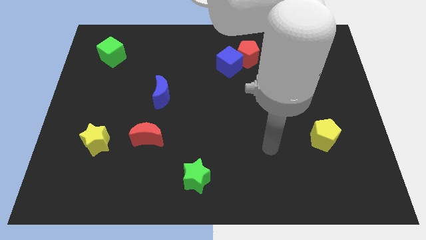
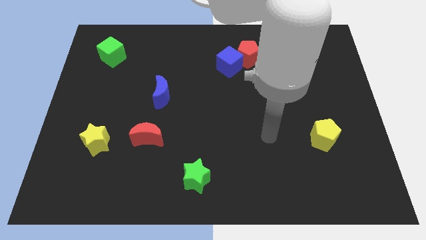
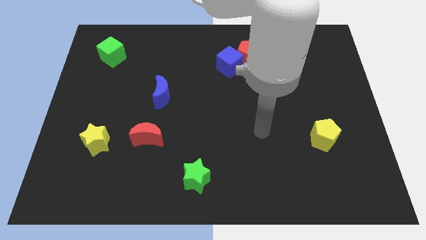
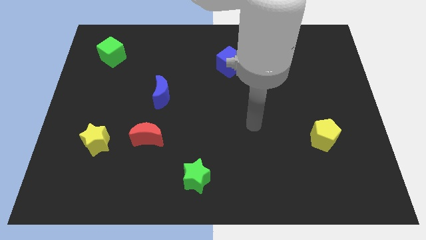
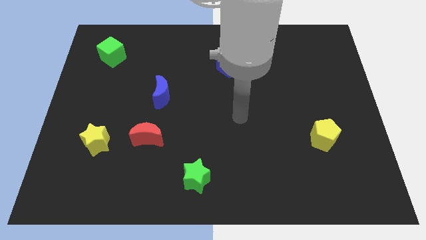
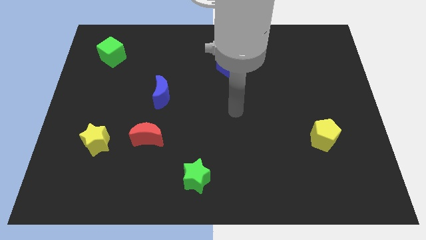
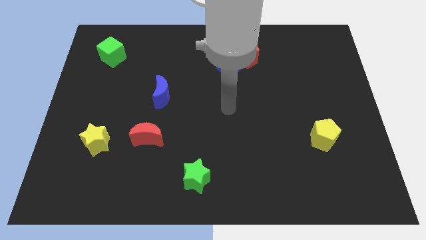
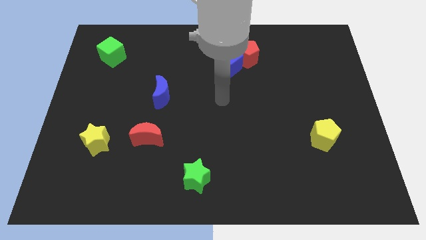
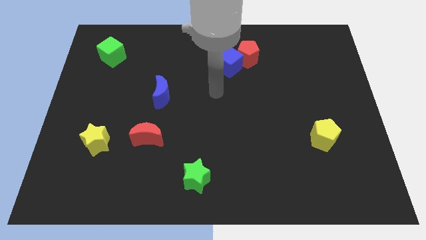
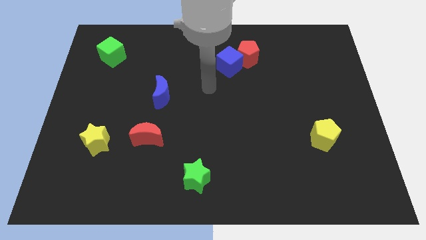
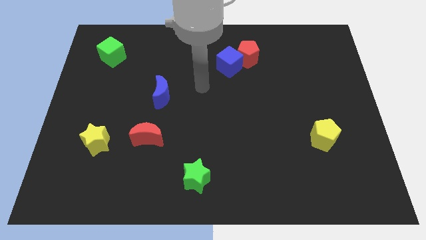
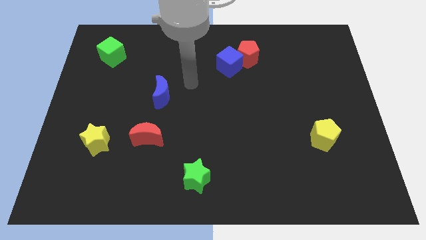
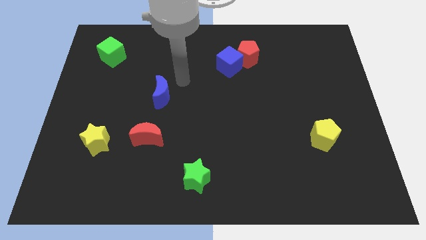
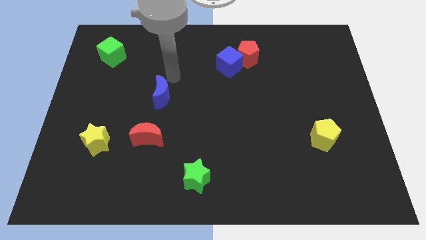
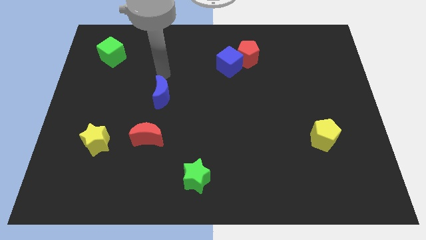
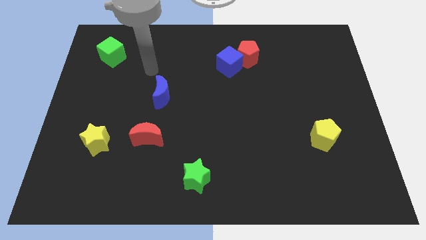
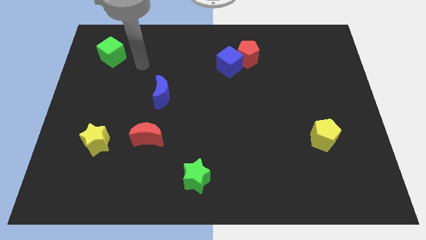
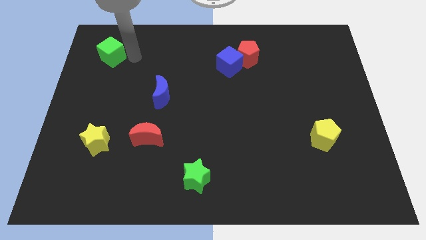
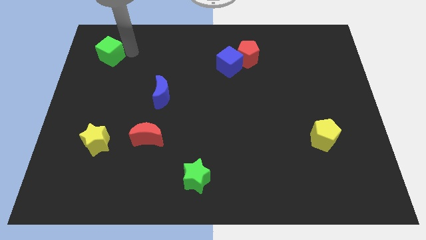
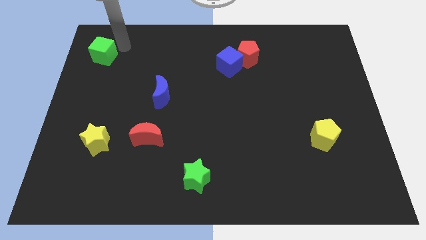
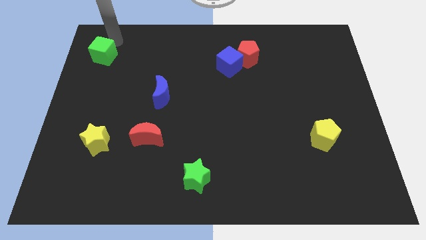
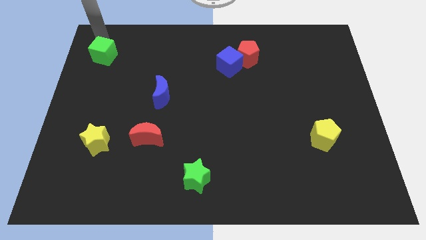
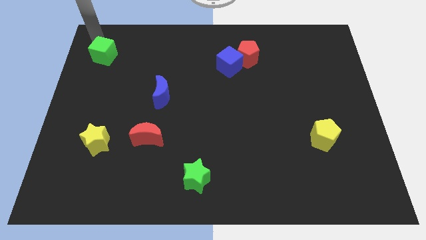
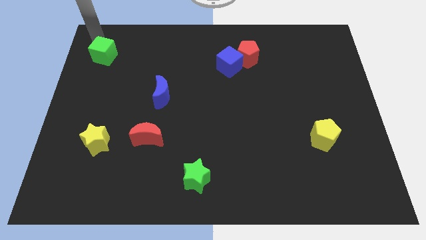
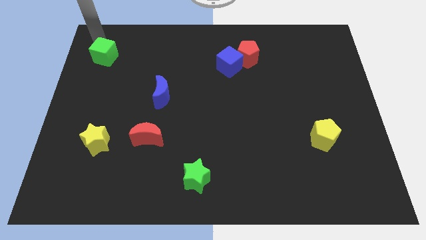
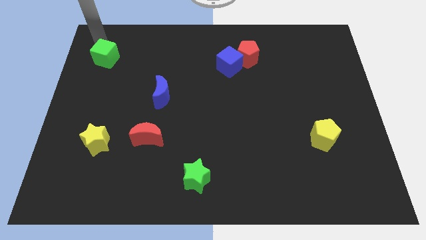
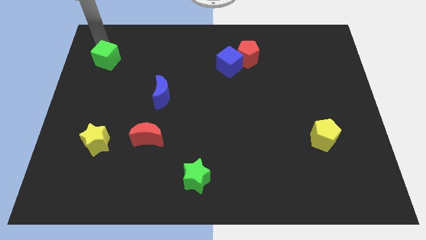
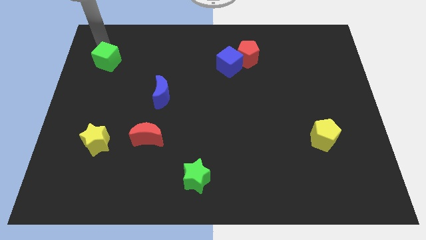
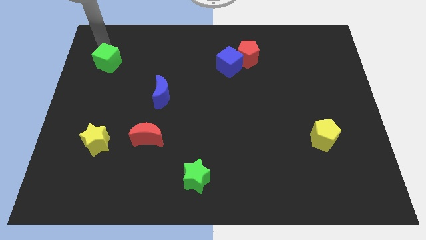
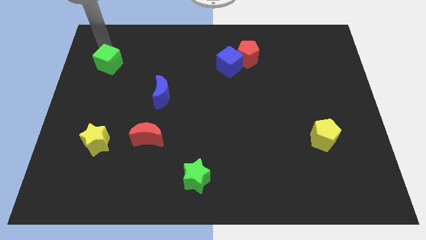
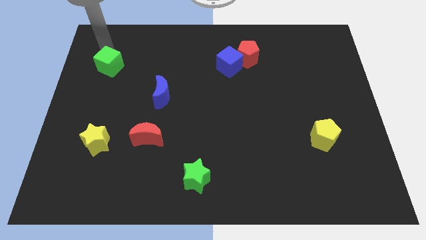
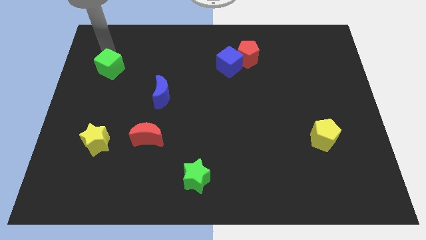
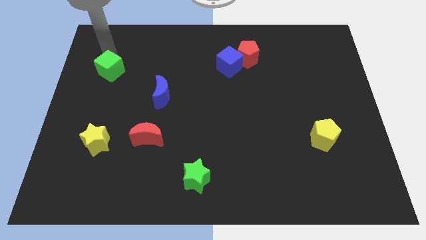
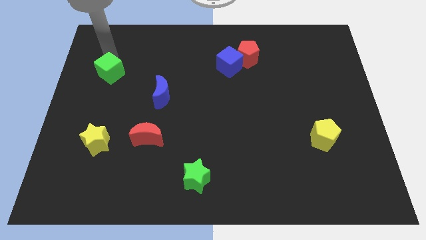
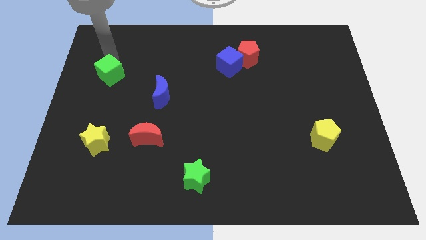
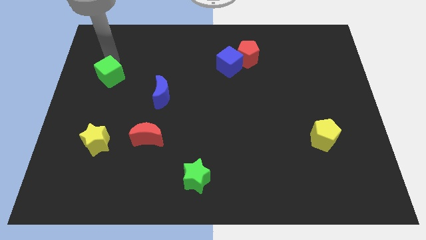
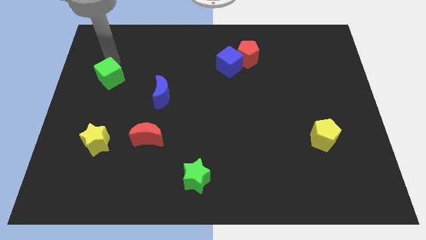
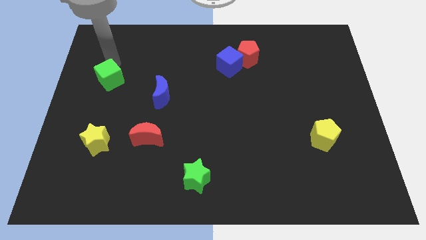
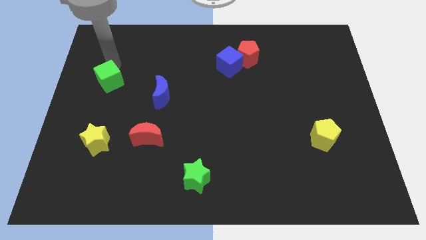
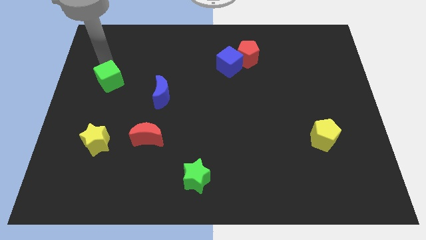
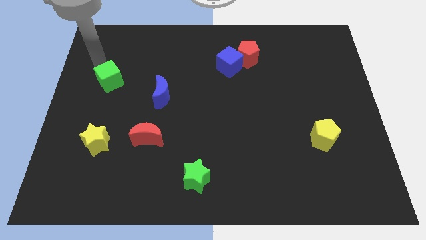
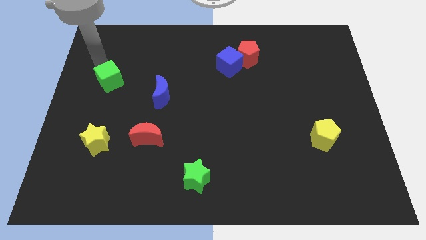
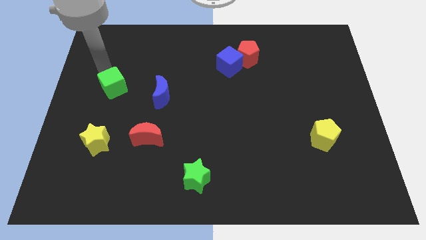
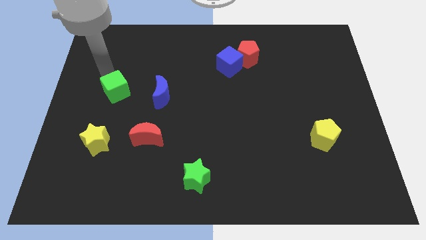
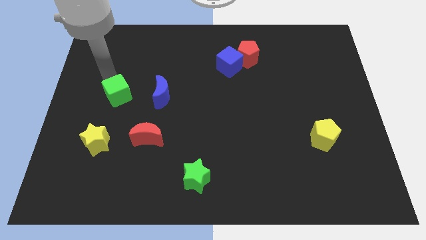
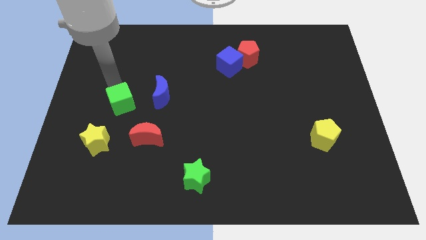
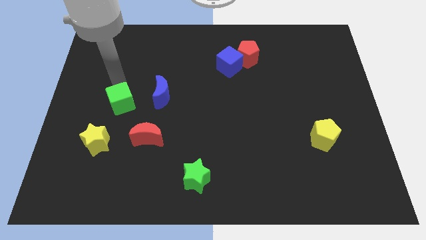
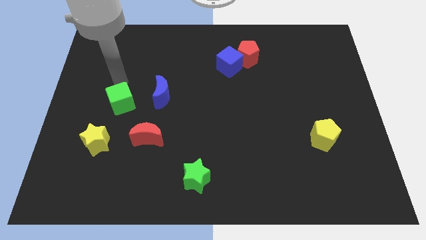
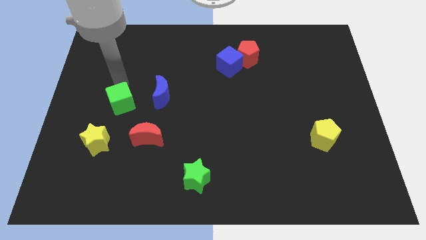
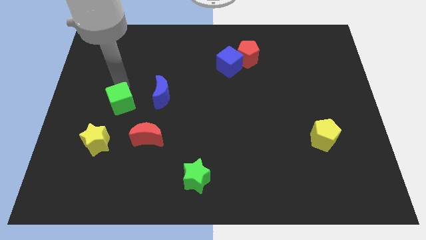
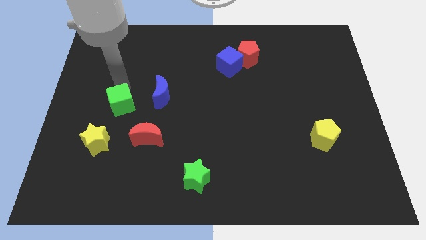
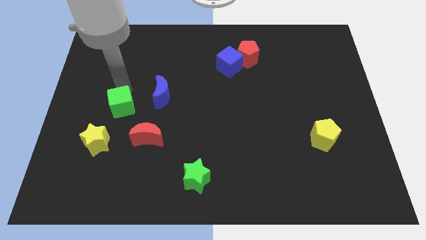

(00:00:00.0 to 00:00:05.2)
slide the green cube to the top right of the yellow star

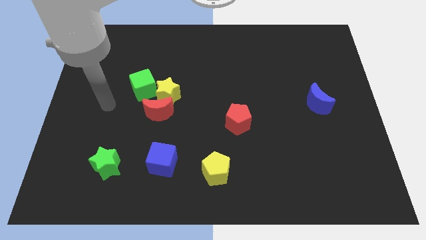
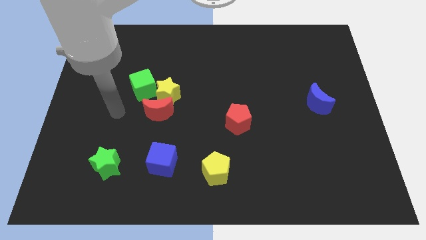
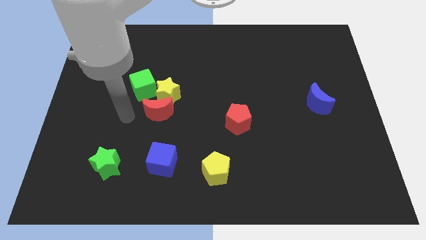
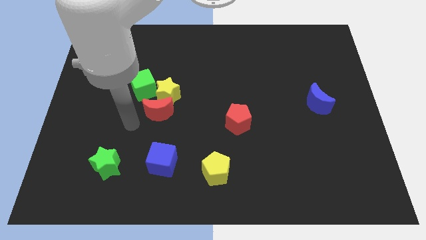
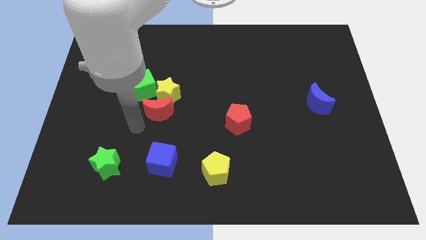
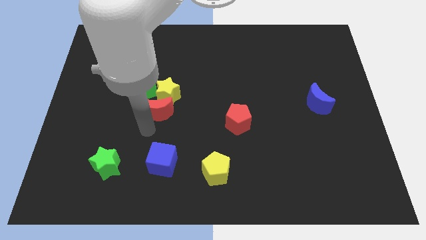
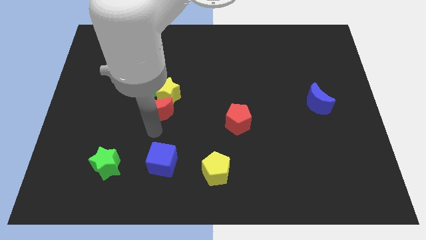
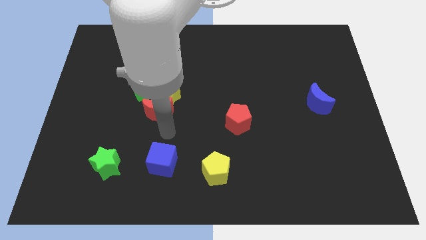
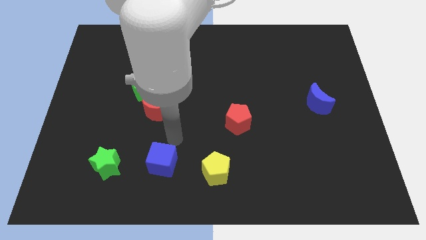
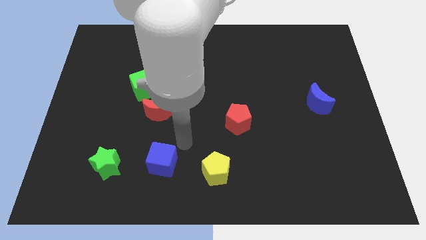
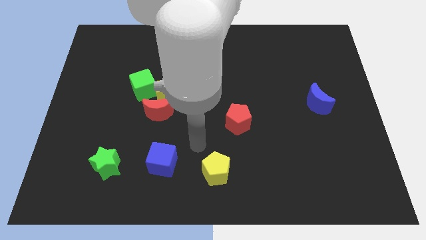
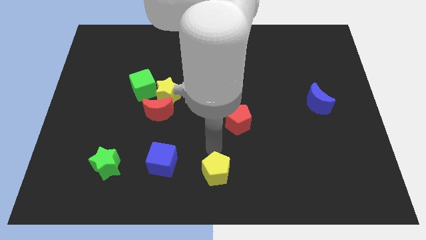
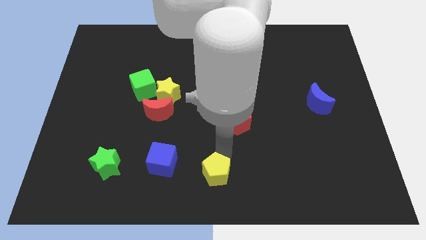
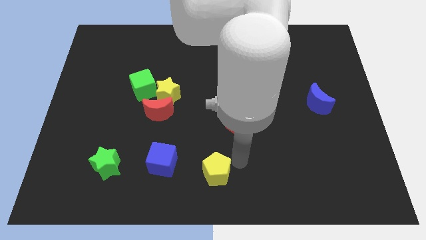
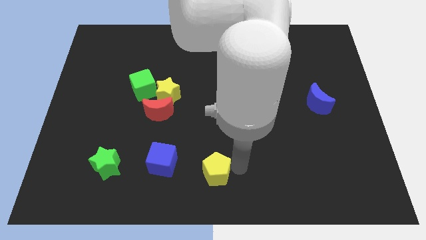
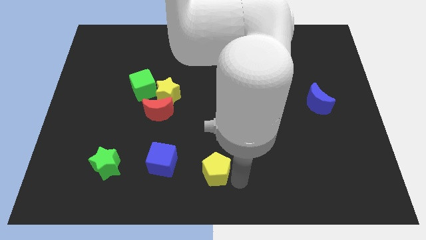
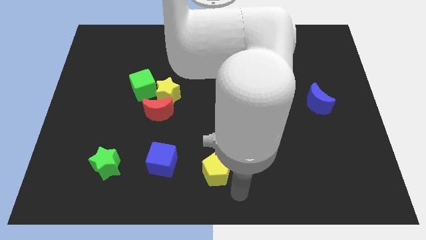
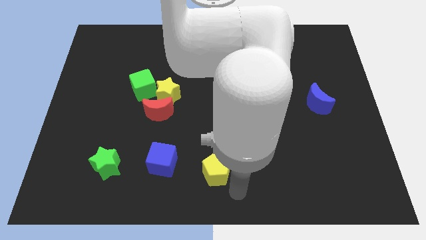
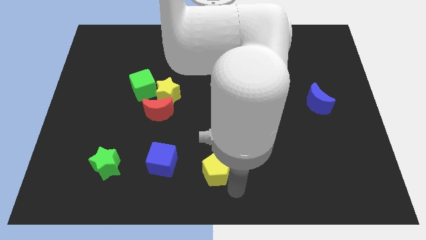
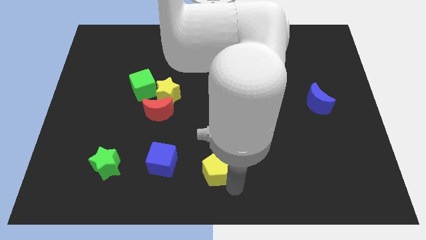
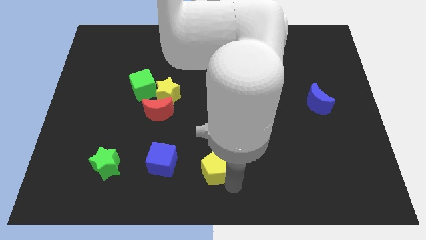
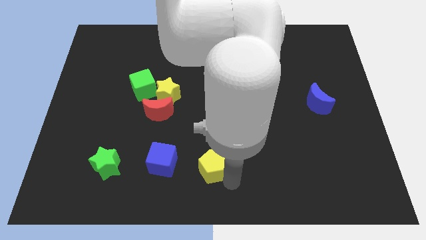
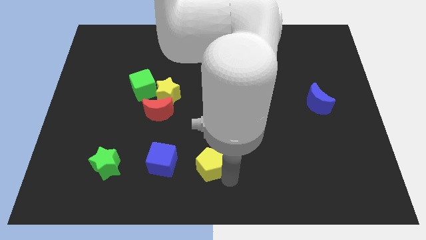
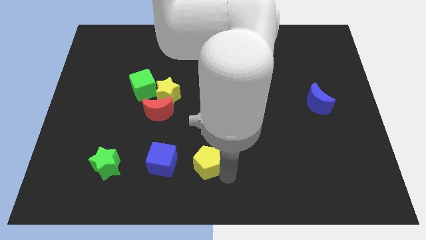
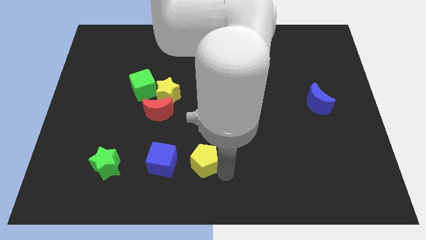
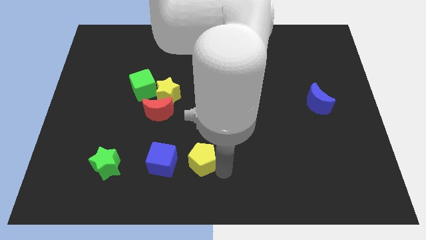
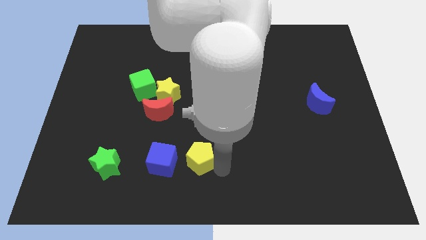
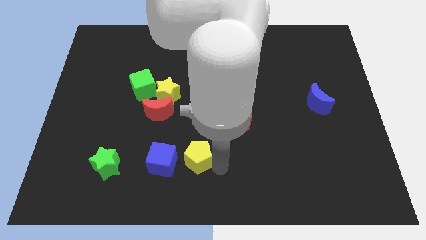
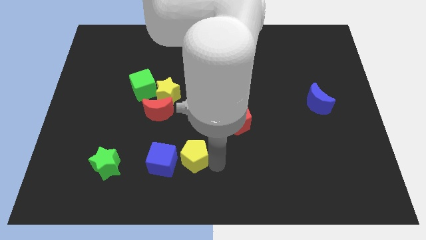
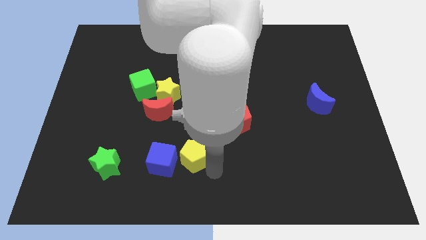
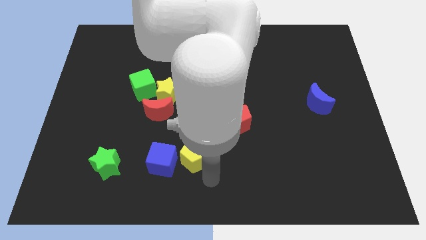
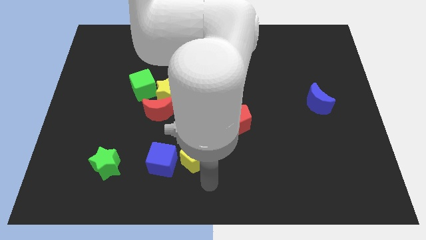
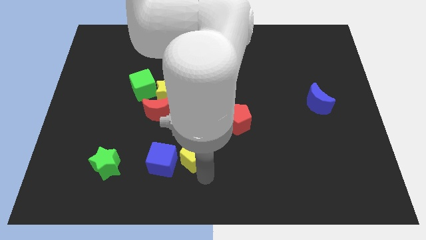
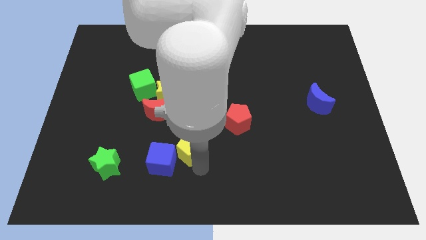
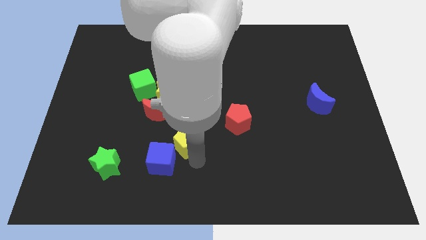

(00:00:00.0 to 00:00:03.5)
move the yellow pentagon to the bottom right side of the red moon
